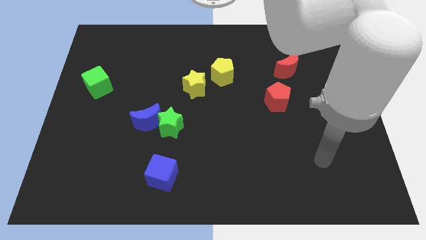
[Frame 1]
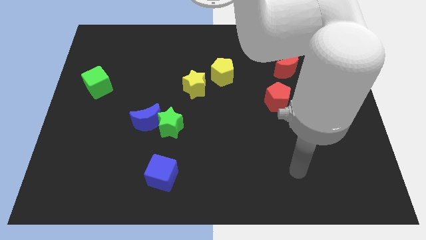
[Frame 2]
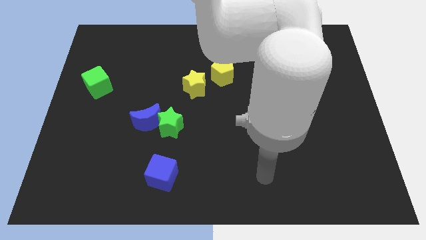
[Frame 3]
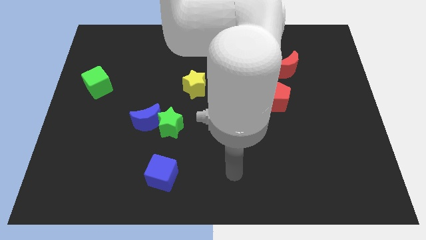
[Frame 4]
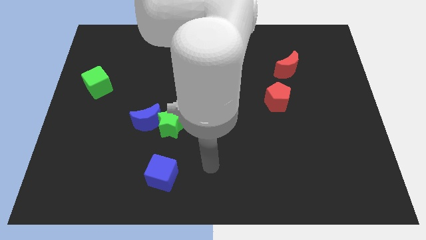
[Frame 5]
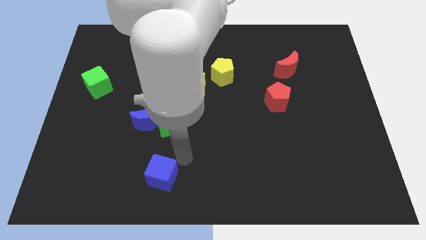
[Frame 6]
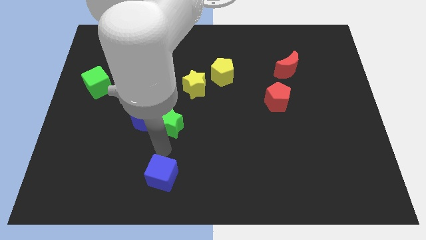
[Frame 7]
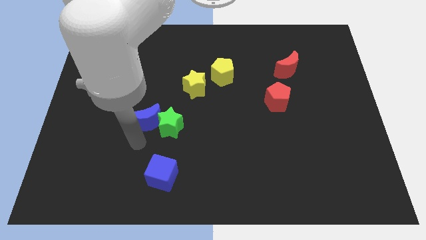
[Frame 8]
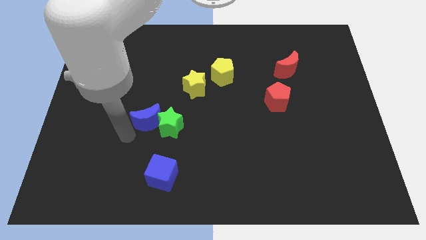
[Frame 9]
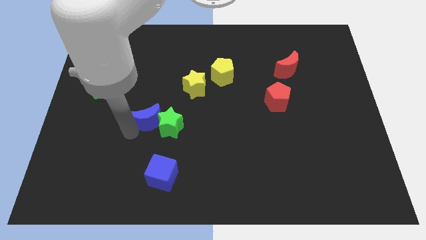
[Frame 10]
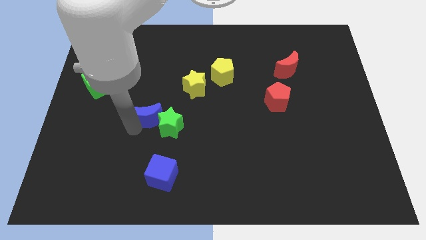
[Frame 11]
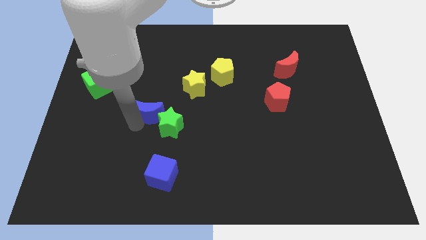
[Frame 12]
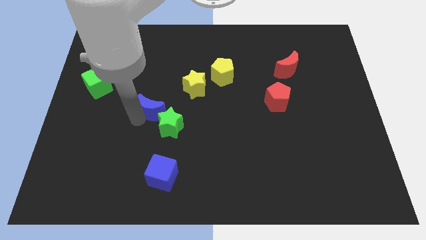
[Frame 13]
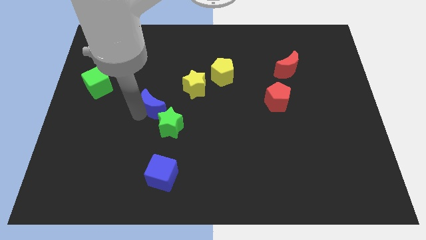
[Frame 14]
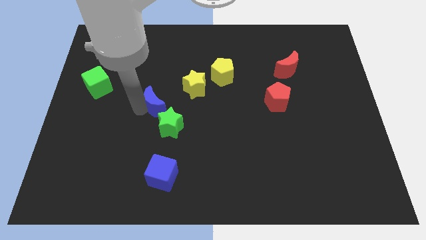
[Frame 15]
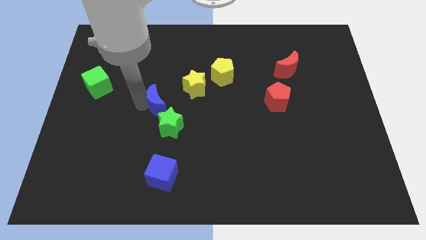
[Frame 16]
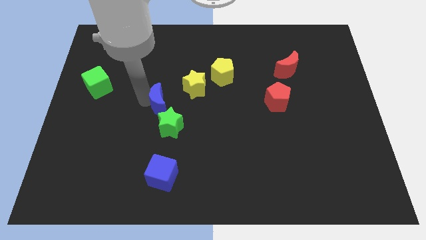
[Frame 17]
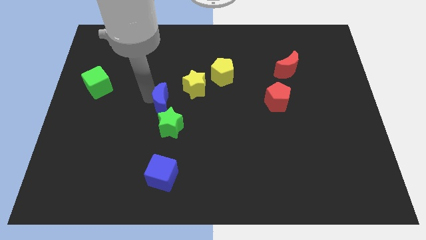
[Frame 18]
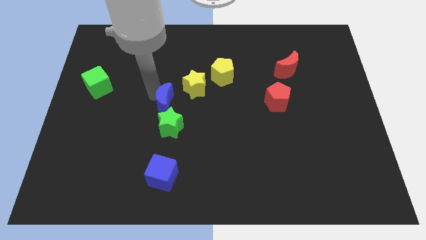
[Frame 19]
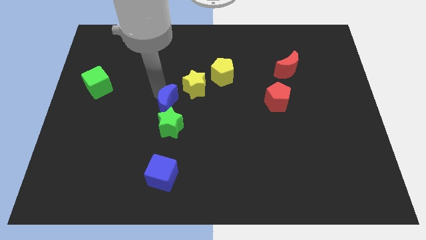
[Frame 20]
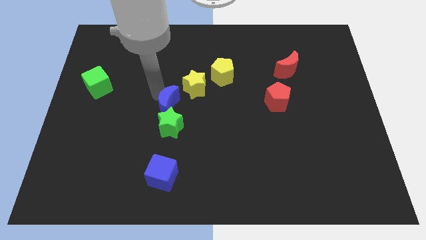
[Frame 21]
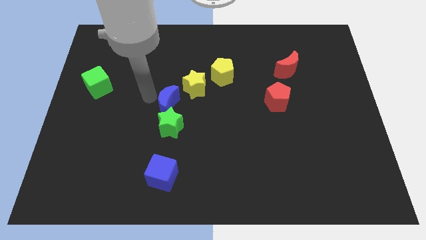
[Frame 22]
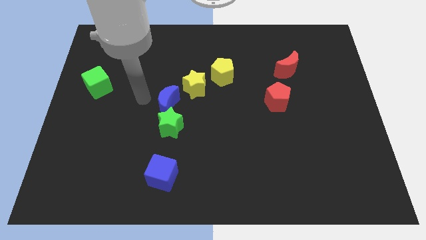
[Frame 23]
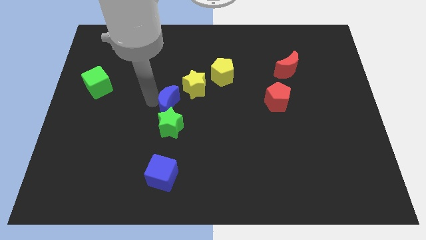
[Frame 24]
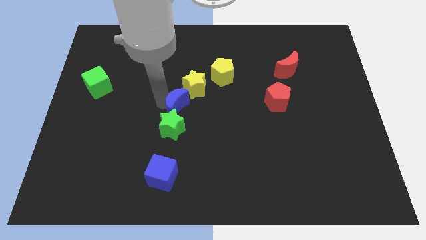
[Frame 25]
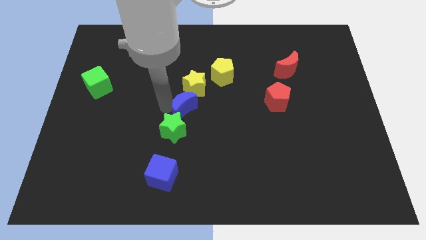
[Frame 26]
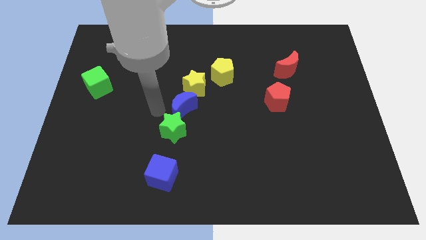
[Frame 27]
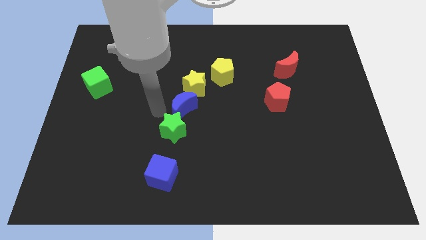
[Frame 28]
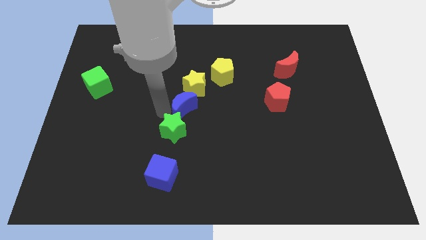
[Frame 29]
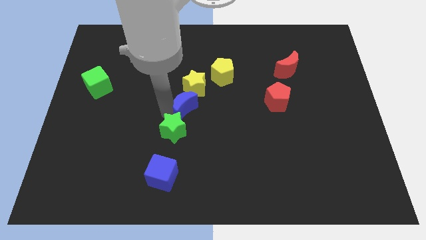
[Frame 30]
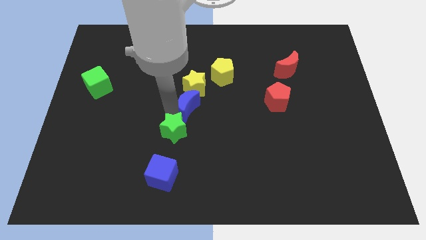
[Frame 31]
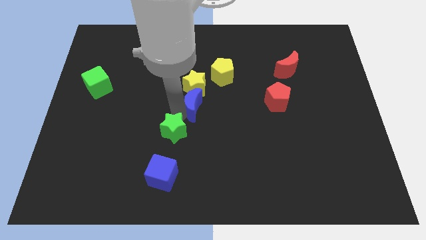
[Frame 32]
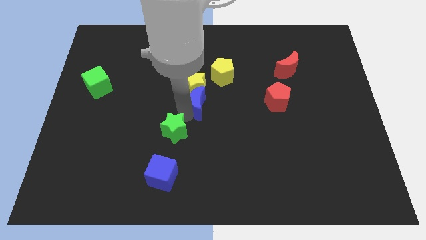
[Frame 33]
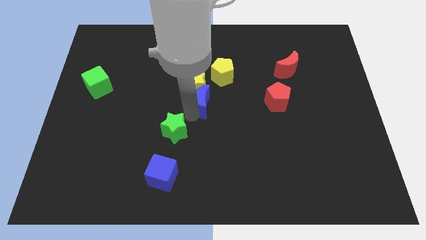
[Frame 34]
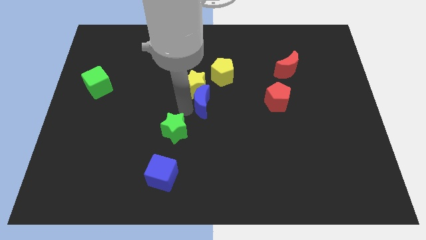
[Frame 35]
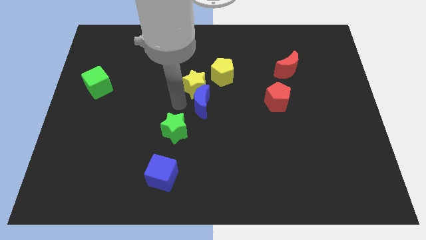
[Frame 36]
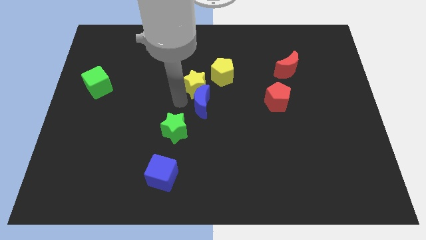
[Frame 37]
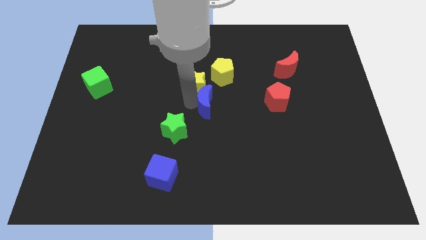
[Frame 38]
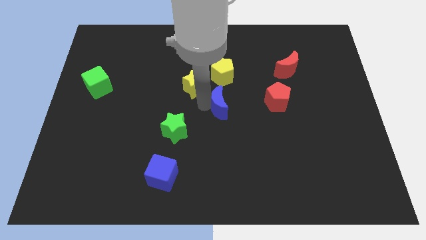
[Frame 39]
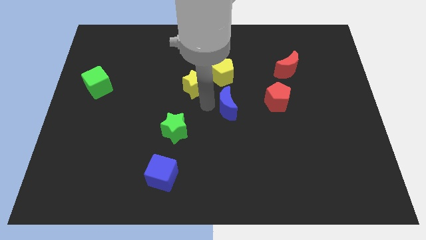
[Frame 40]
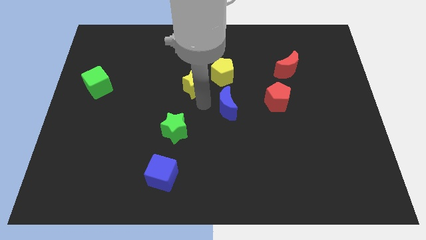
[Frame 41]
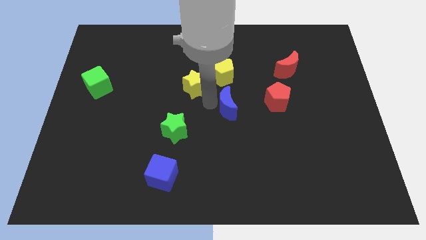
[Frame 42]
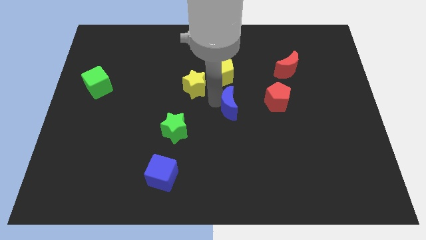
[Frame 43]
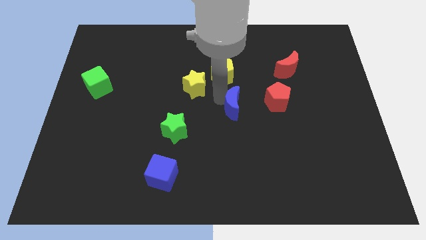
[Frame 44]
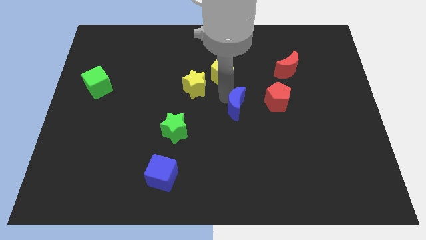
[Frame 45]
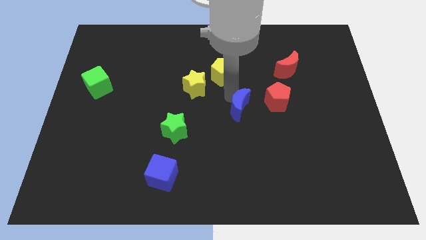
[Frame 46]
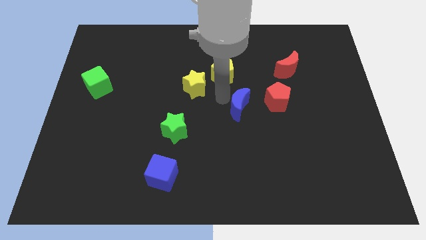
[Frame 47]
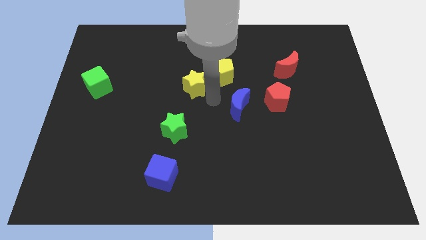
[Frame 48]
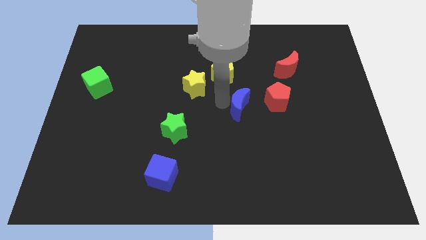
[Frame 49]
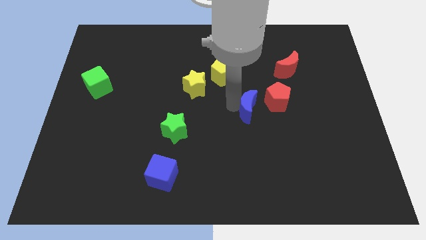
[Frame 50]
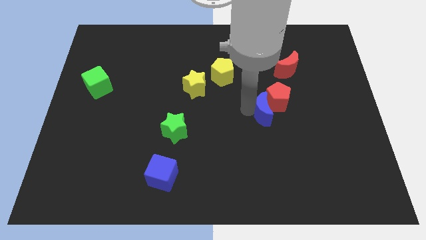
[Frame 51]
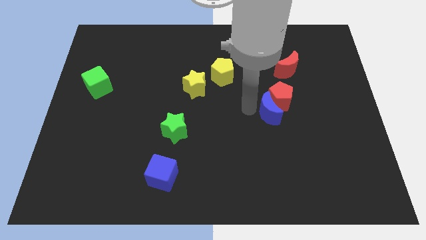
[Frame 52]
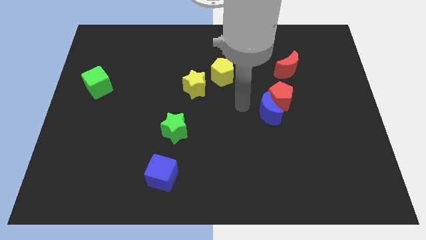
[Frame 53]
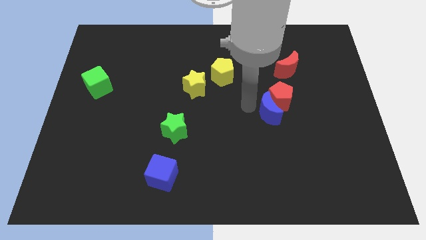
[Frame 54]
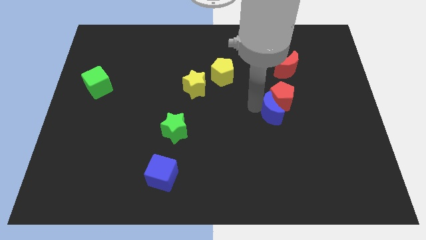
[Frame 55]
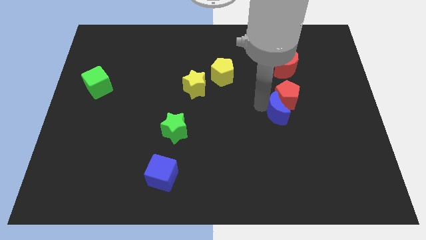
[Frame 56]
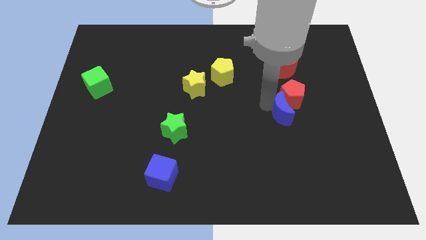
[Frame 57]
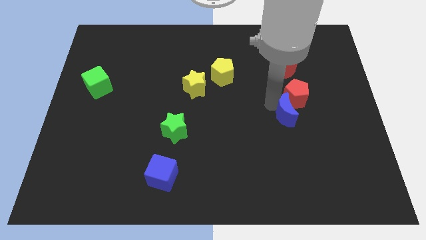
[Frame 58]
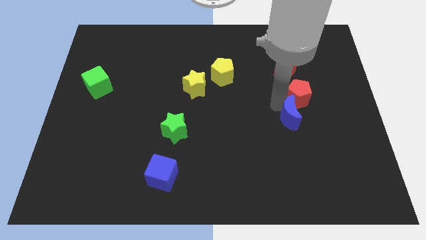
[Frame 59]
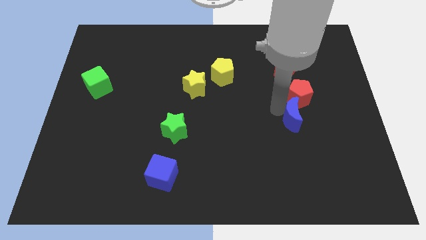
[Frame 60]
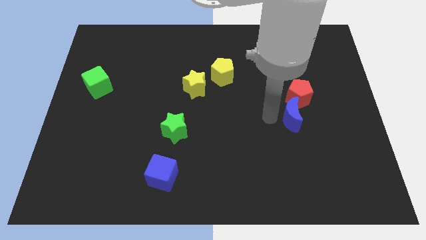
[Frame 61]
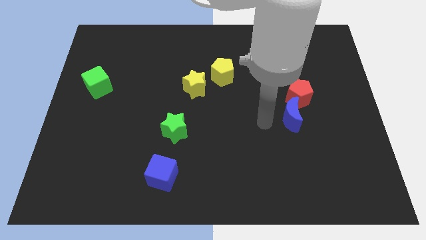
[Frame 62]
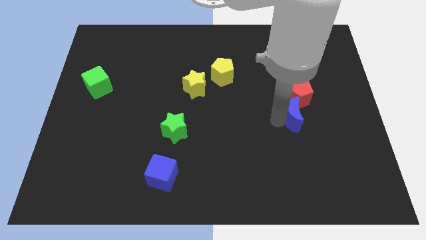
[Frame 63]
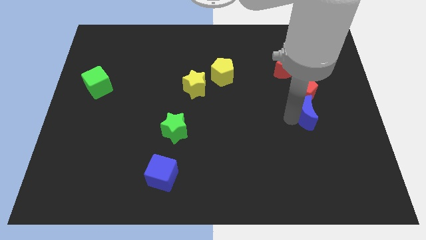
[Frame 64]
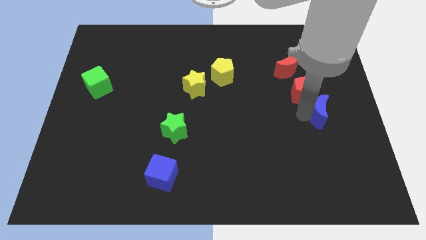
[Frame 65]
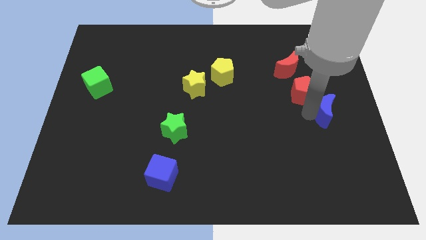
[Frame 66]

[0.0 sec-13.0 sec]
move the blue moon to the center right
